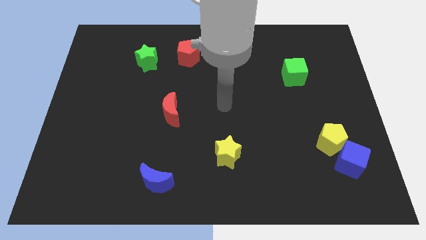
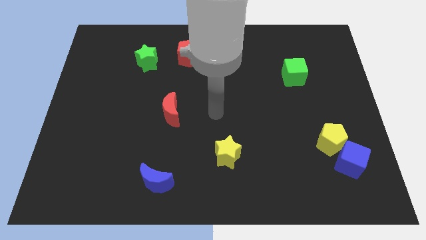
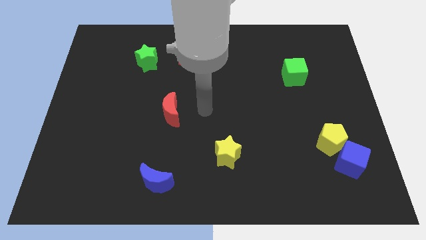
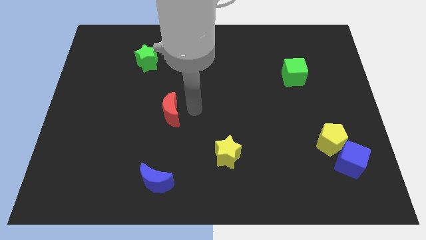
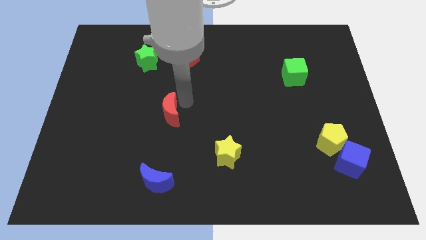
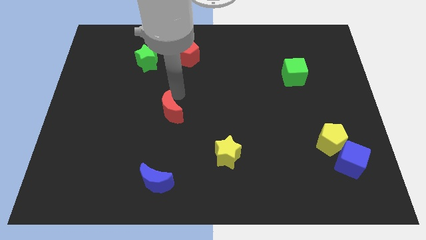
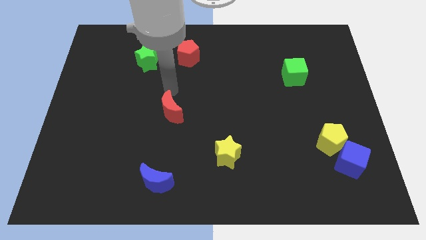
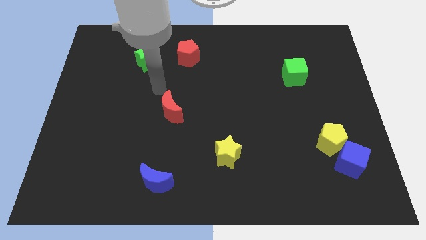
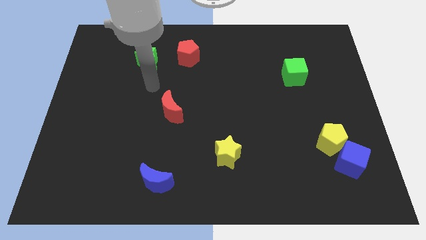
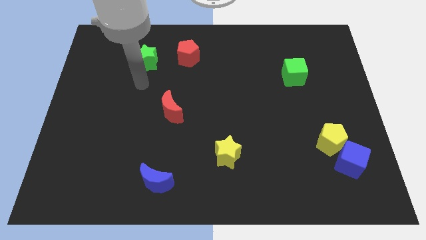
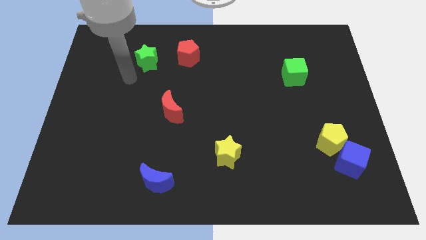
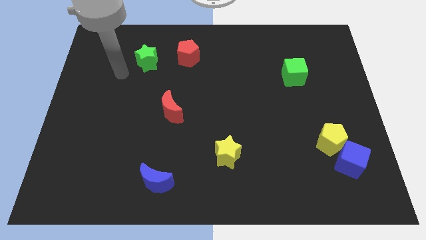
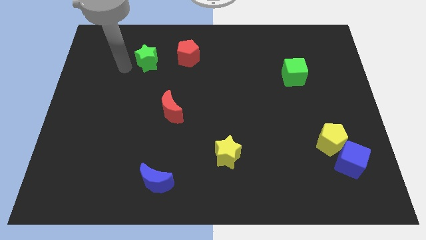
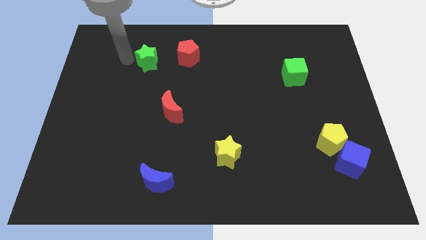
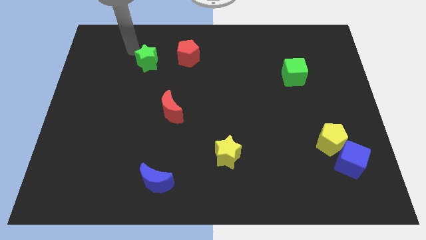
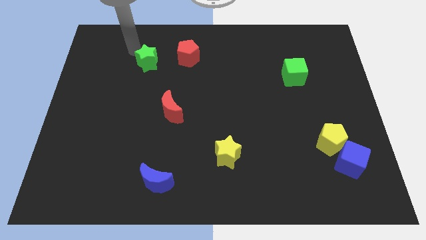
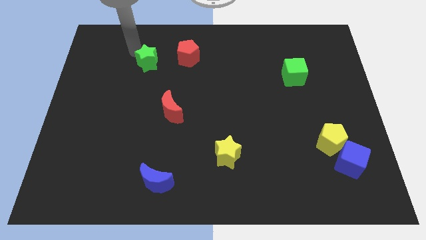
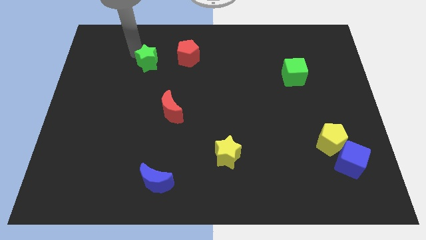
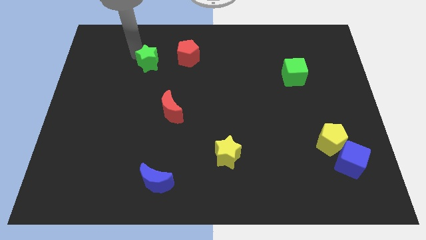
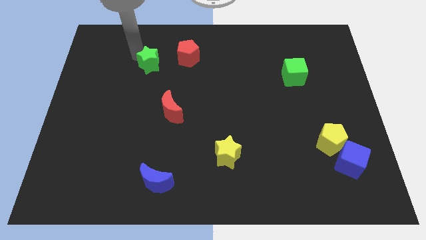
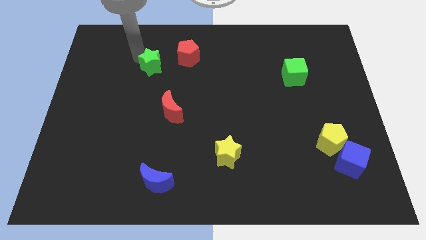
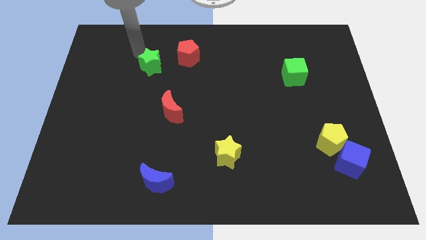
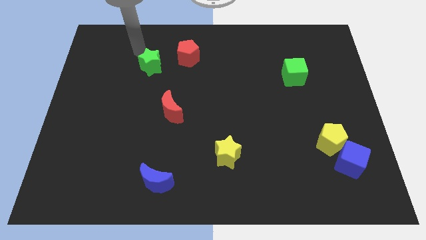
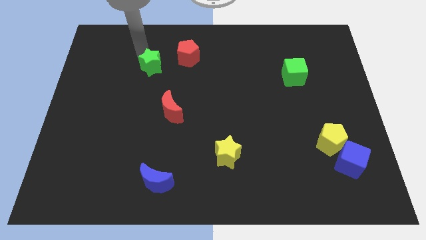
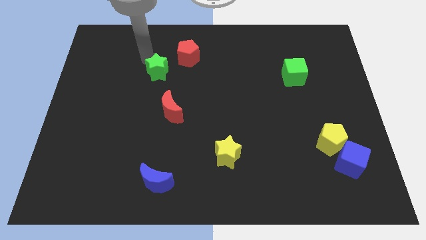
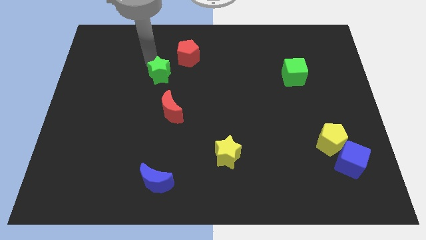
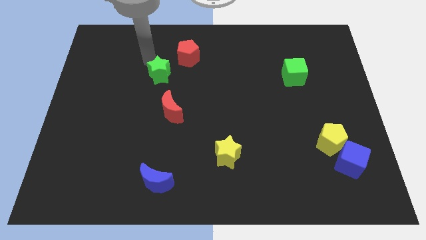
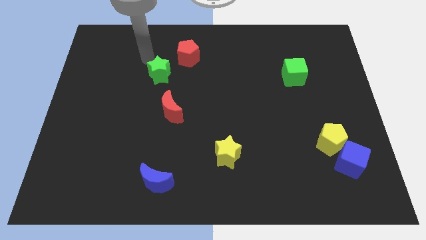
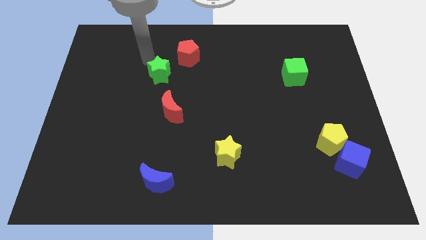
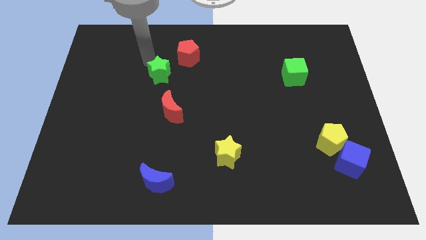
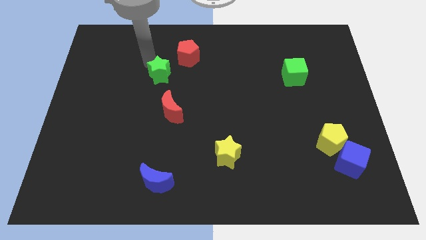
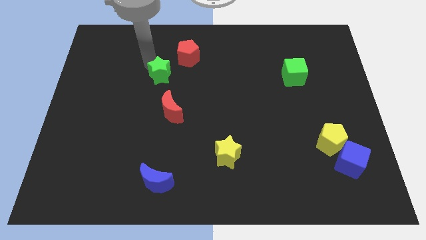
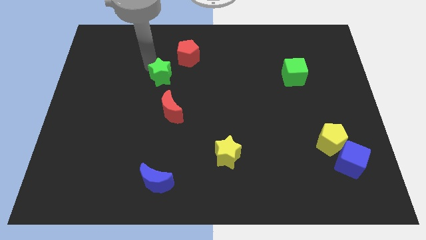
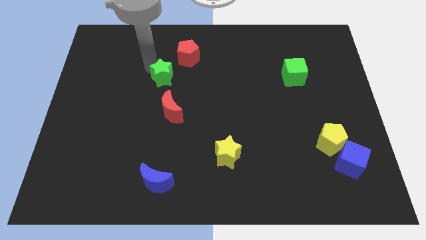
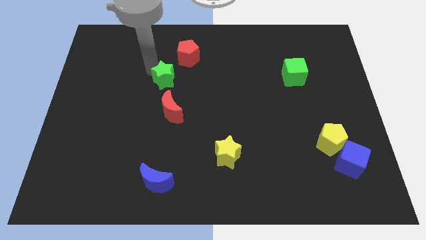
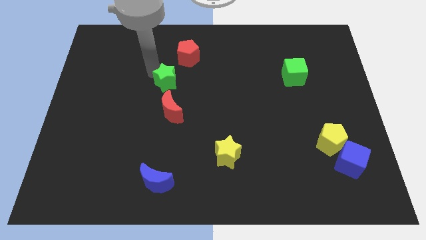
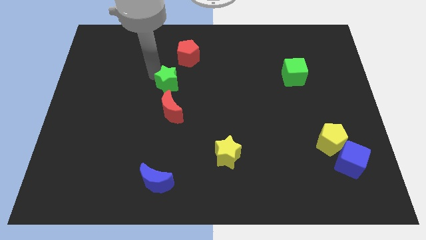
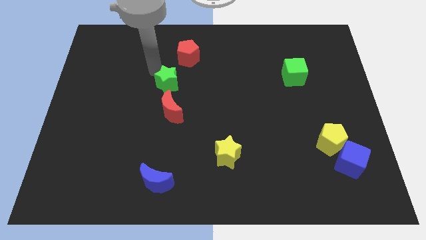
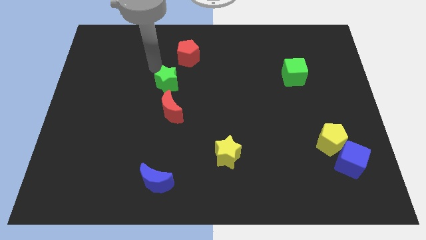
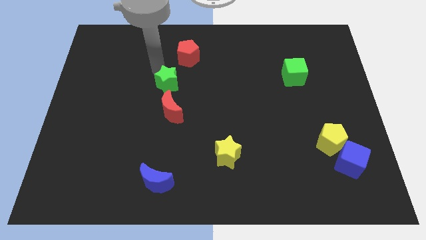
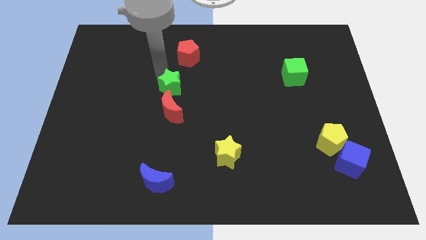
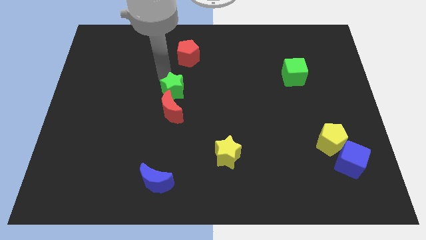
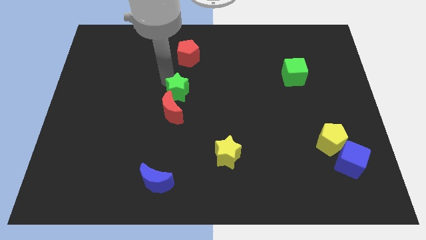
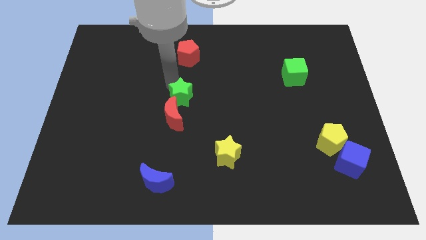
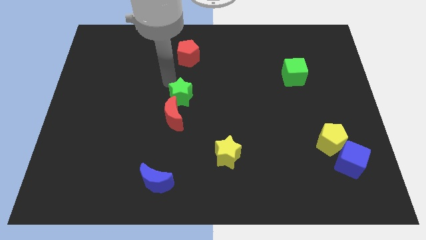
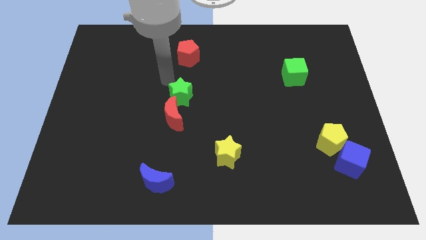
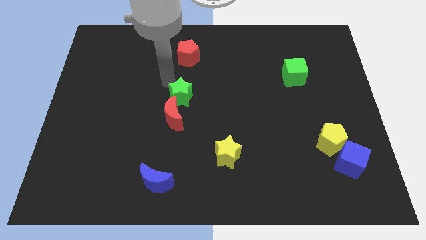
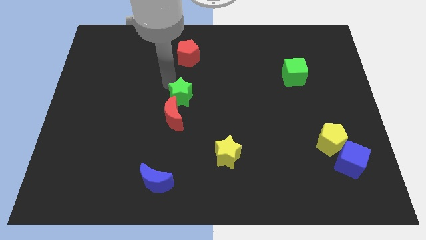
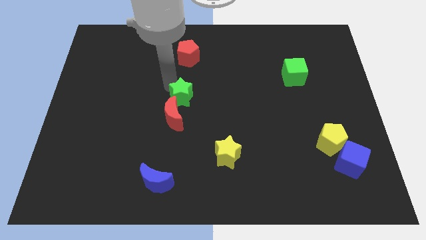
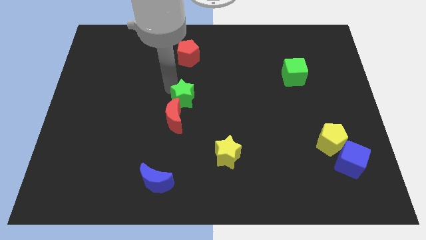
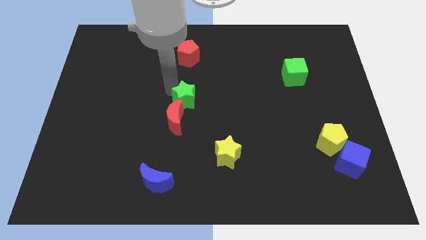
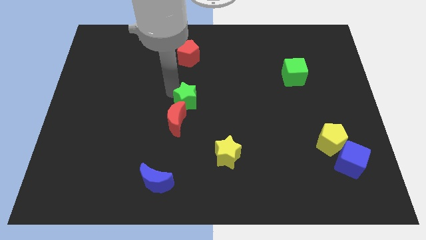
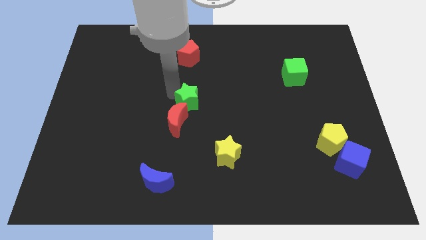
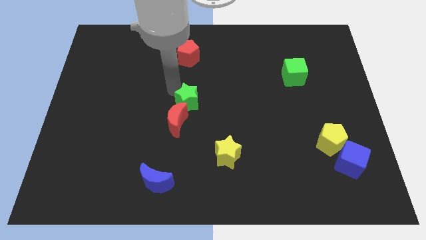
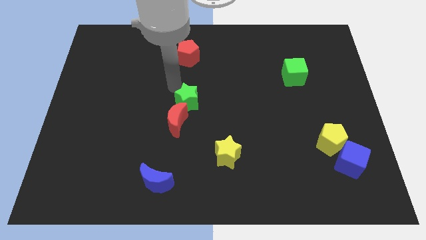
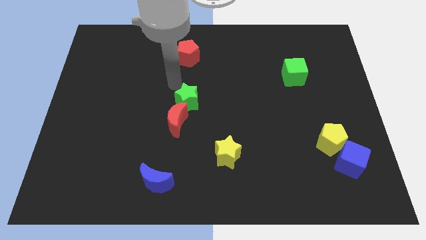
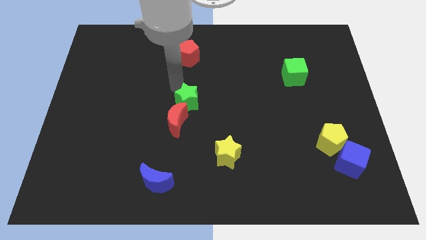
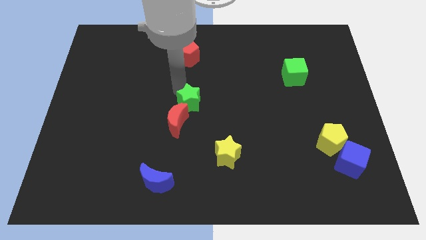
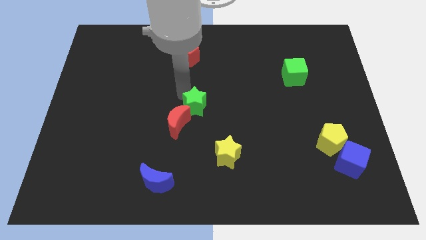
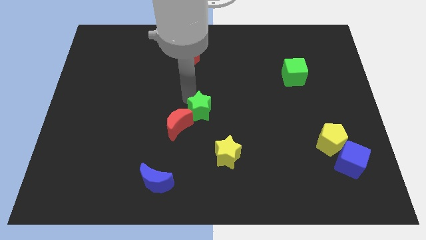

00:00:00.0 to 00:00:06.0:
slide the green star down and to the right

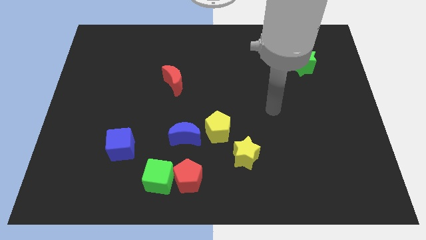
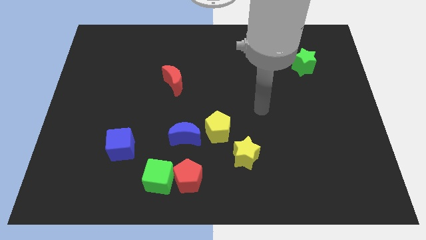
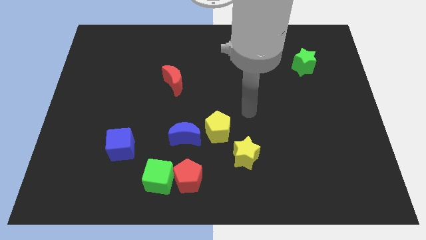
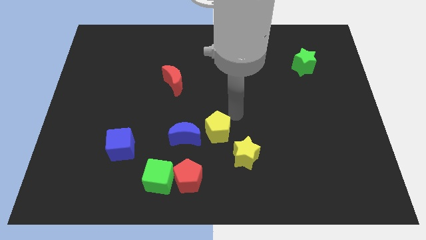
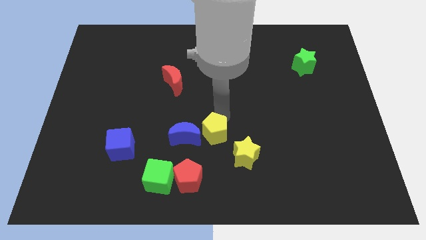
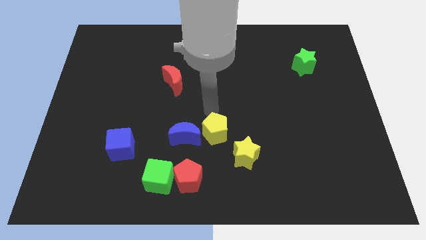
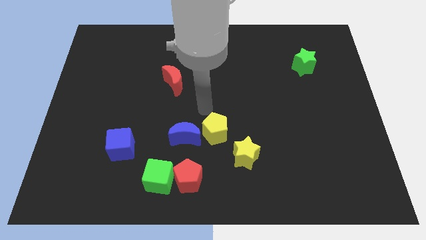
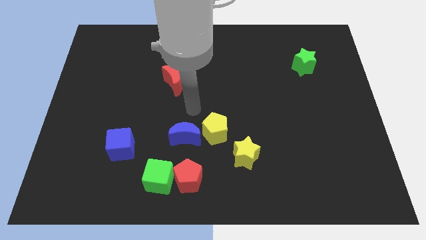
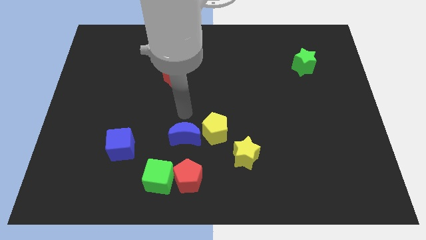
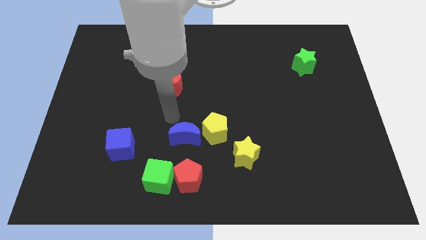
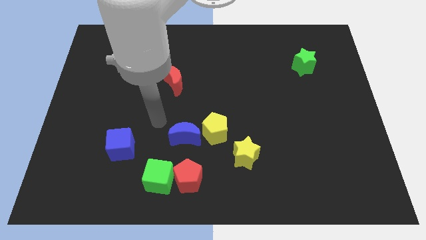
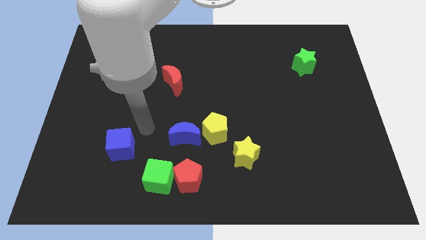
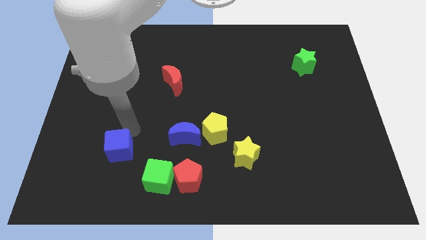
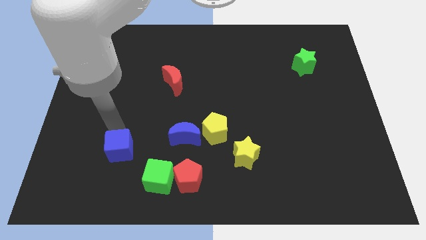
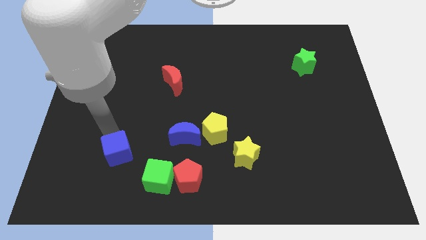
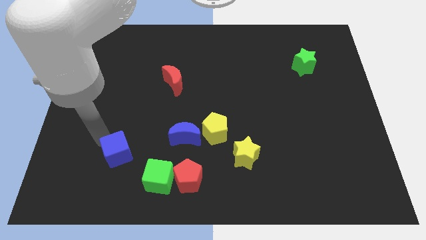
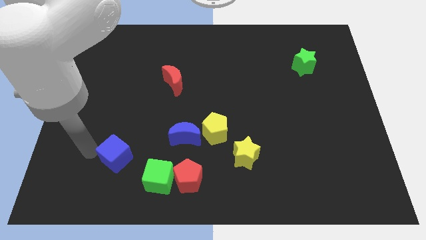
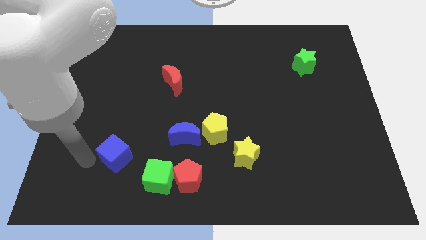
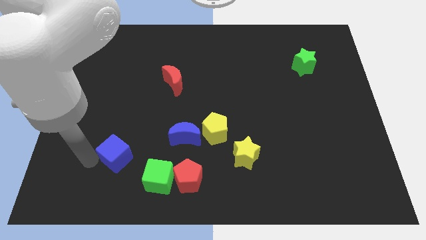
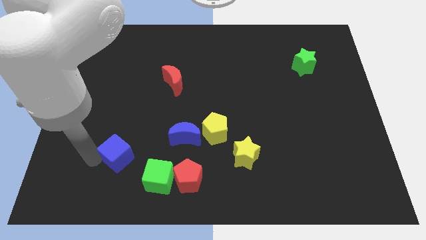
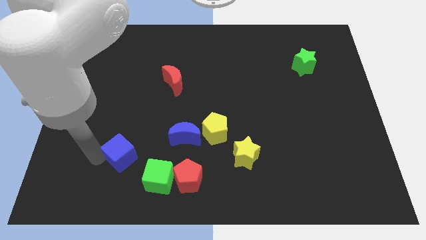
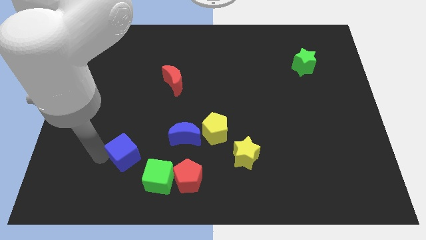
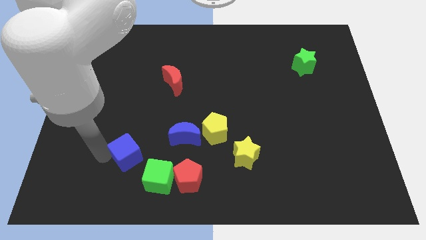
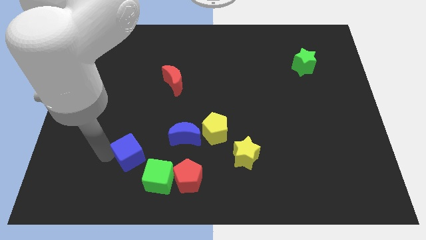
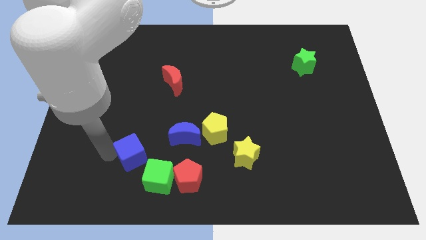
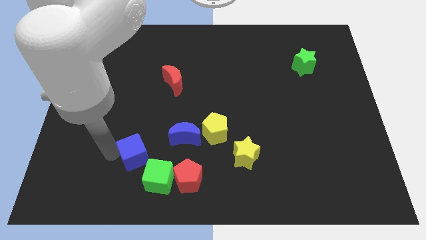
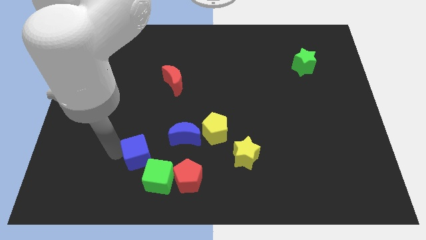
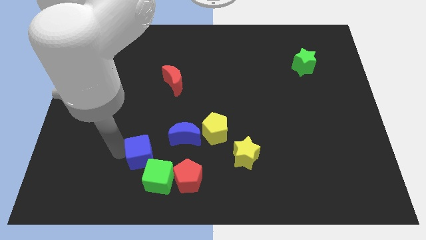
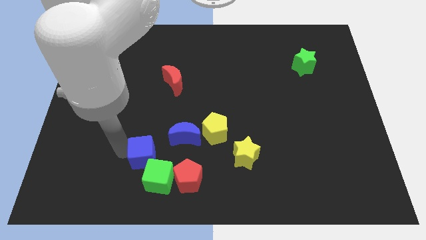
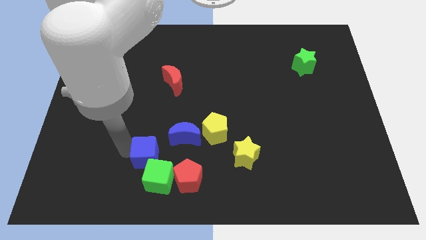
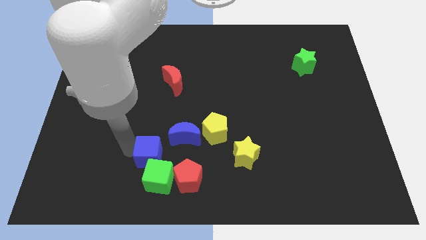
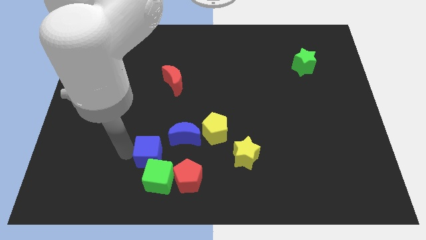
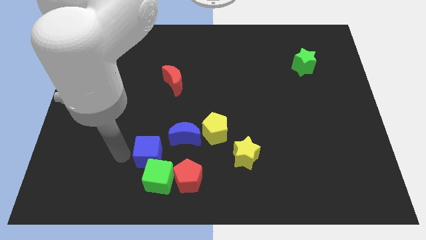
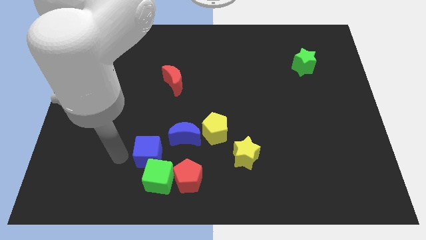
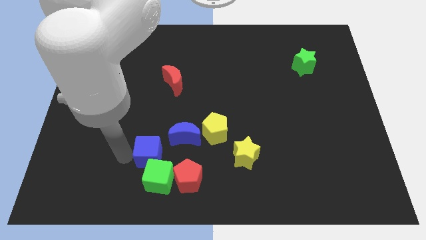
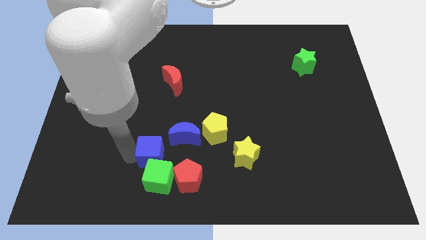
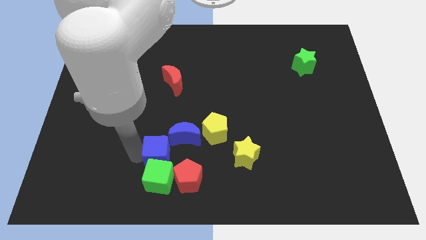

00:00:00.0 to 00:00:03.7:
push the blue cube to the right a little bit
